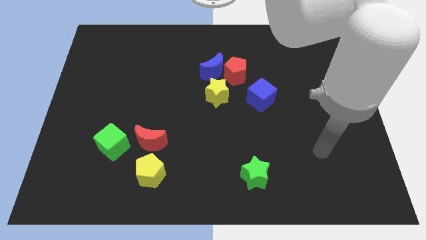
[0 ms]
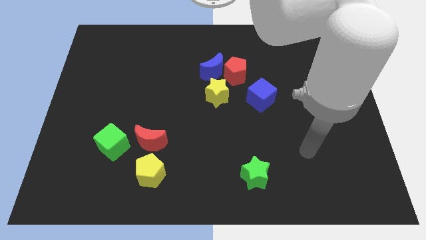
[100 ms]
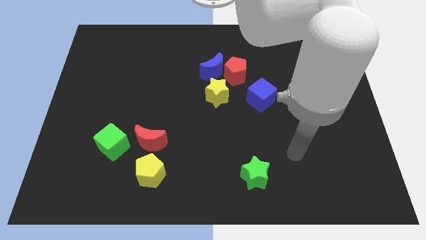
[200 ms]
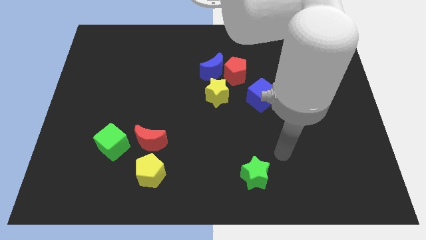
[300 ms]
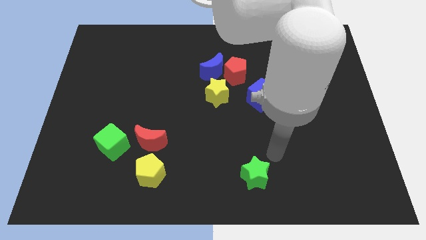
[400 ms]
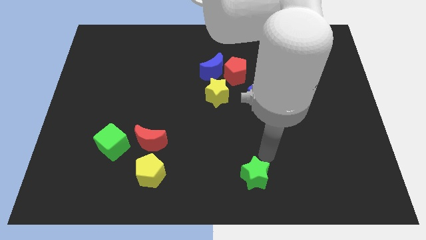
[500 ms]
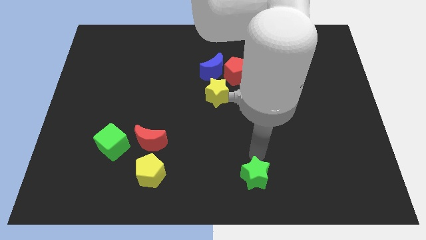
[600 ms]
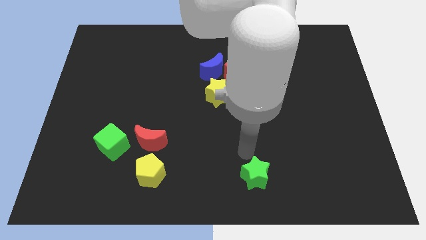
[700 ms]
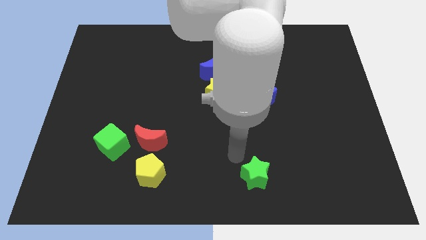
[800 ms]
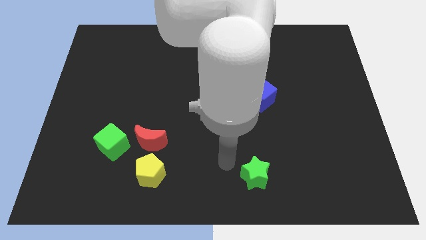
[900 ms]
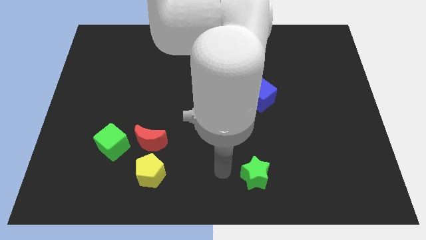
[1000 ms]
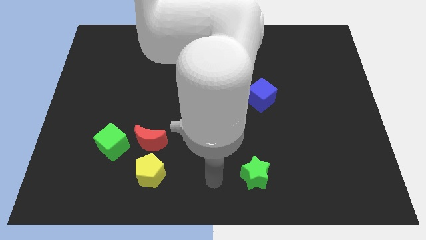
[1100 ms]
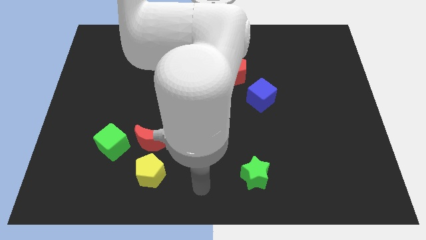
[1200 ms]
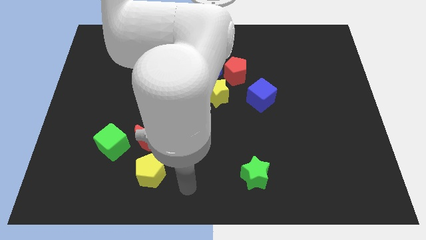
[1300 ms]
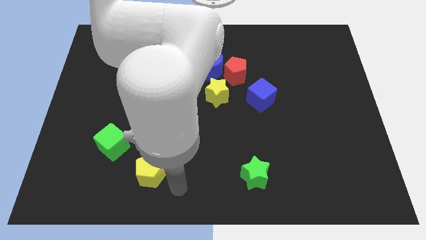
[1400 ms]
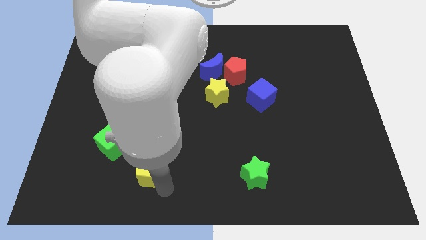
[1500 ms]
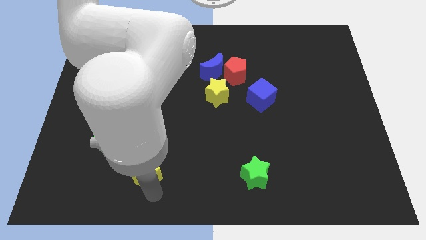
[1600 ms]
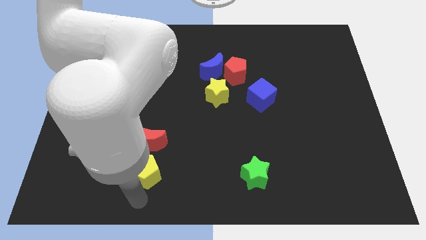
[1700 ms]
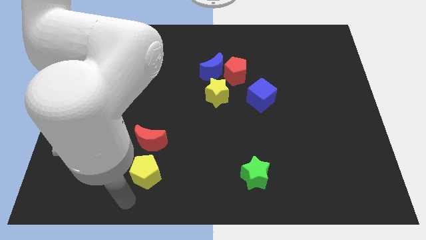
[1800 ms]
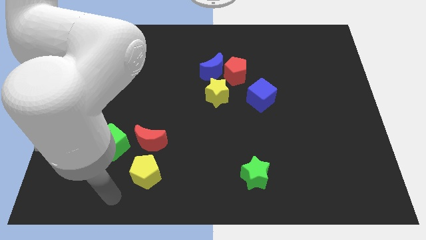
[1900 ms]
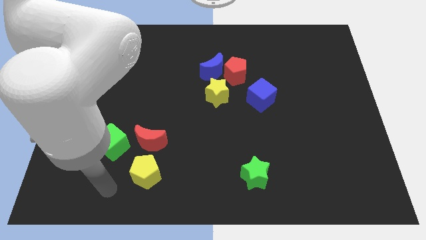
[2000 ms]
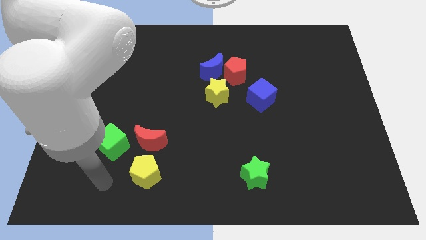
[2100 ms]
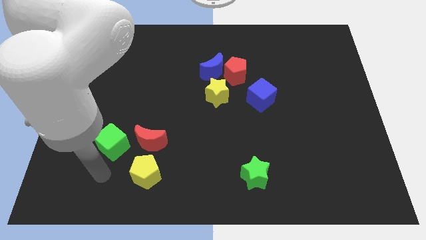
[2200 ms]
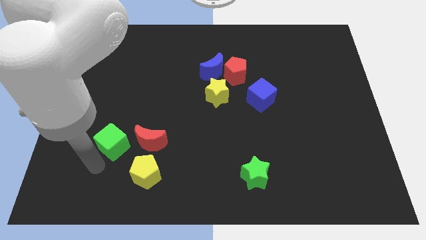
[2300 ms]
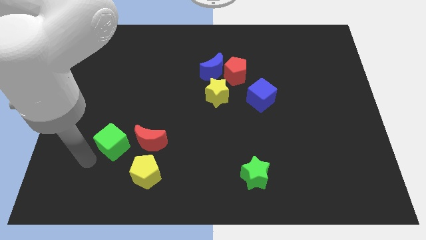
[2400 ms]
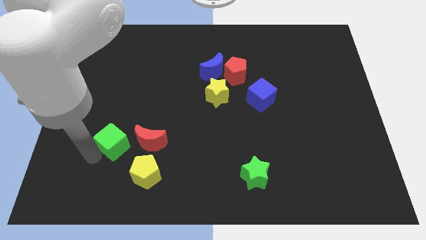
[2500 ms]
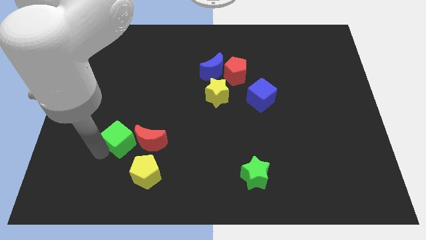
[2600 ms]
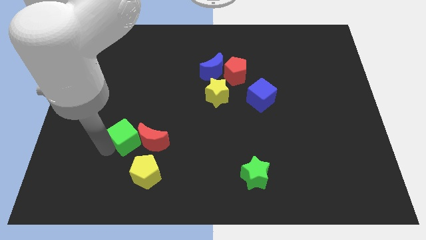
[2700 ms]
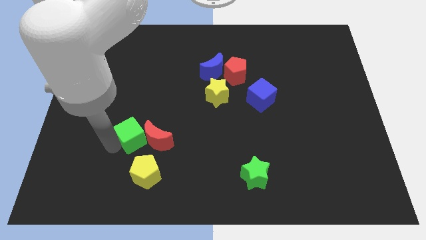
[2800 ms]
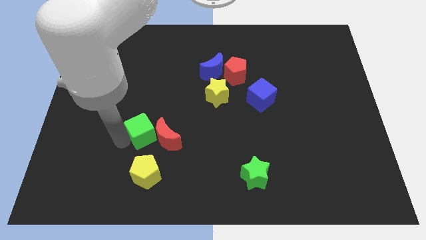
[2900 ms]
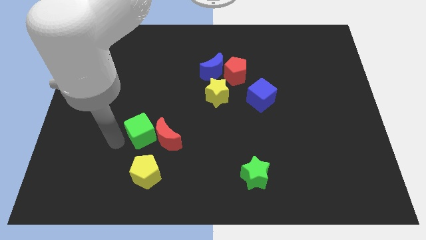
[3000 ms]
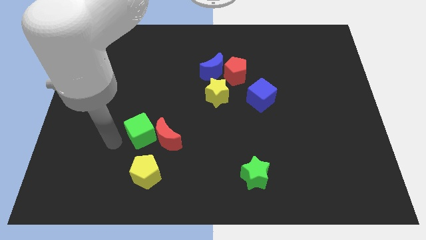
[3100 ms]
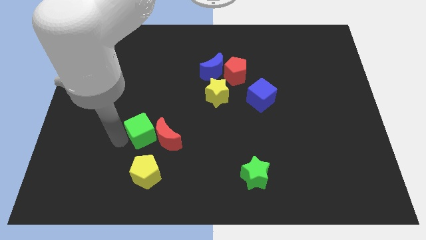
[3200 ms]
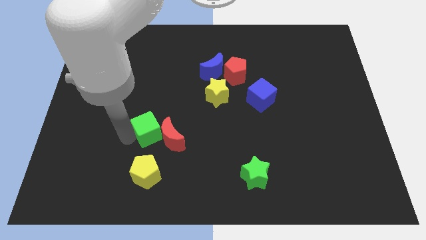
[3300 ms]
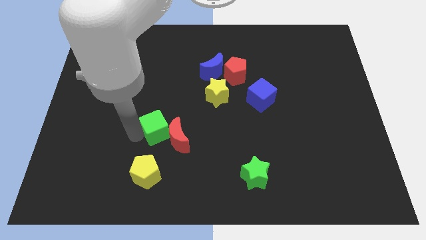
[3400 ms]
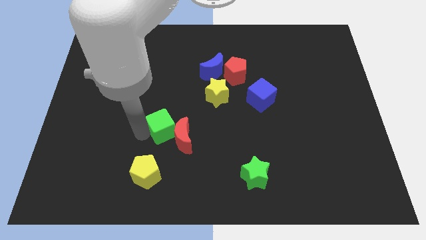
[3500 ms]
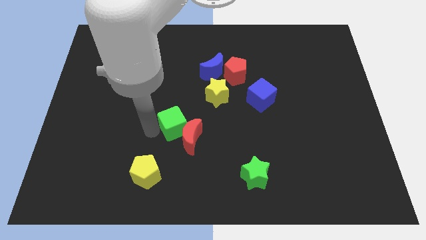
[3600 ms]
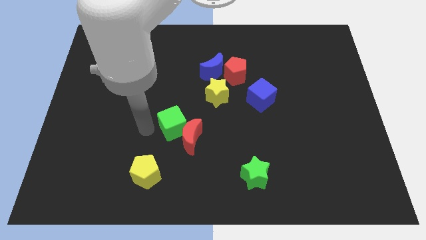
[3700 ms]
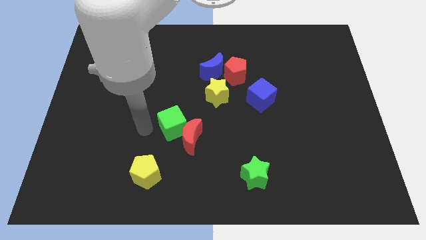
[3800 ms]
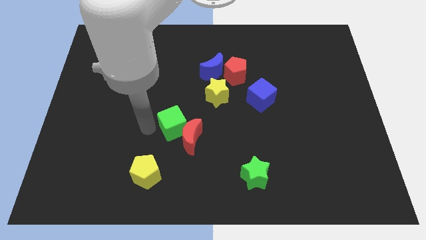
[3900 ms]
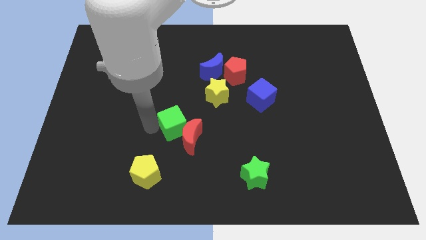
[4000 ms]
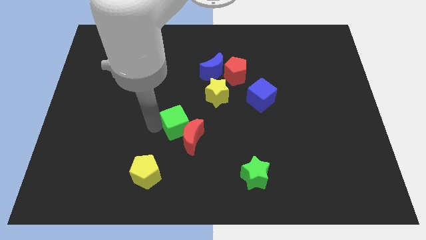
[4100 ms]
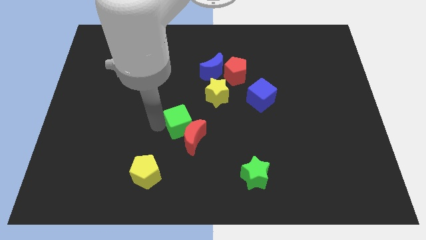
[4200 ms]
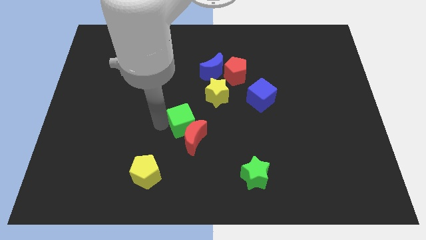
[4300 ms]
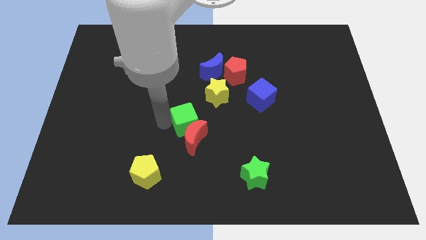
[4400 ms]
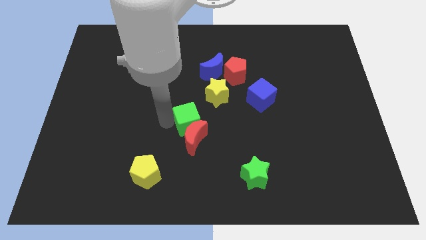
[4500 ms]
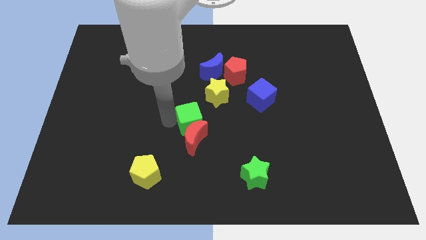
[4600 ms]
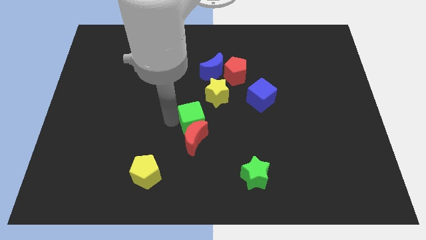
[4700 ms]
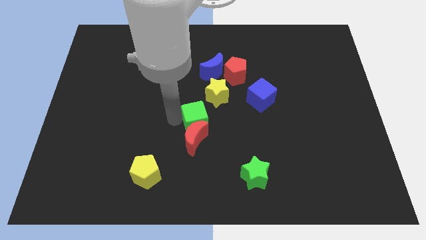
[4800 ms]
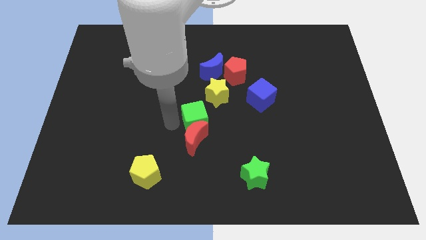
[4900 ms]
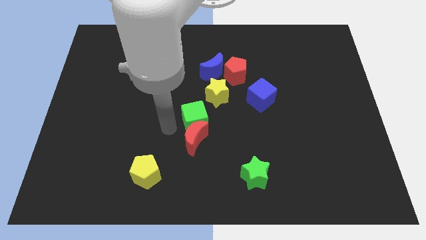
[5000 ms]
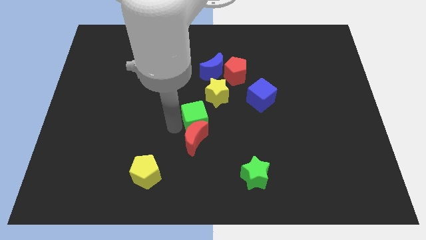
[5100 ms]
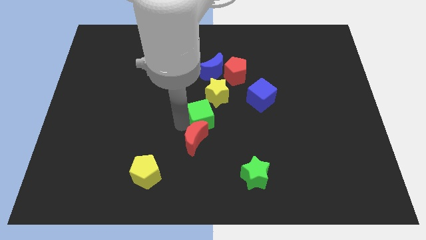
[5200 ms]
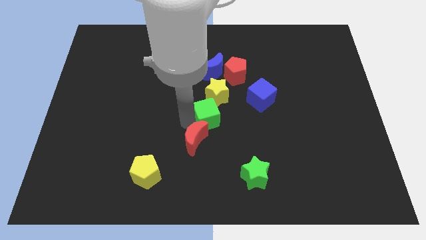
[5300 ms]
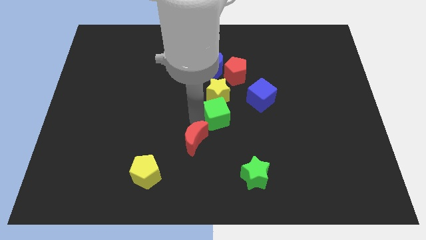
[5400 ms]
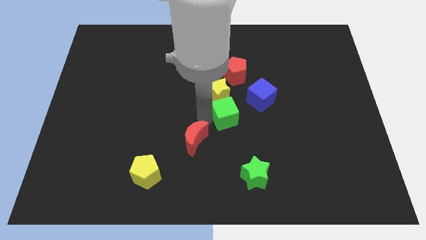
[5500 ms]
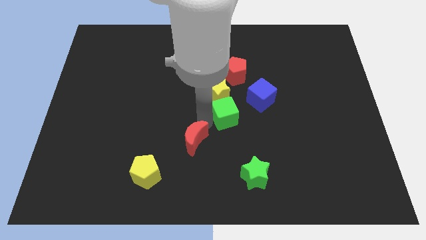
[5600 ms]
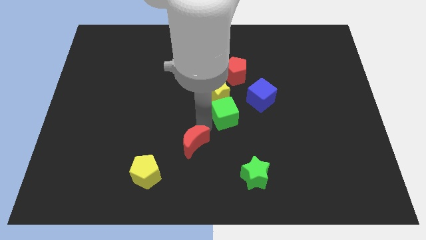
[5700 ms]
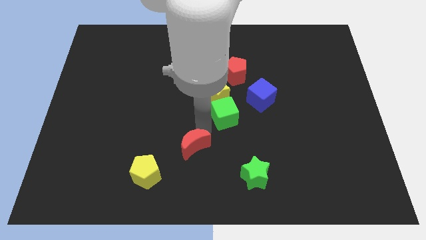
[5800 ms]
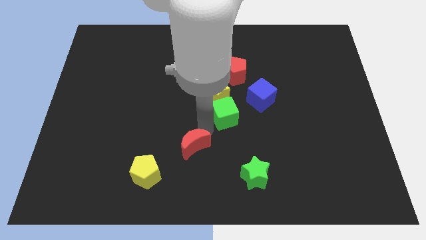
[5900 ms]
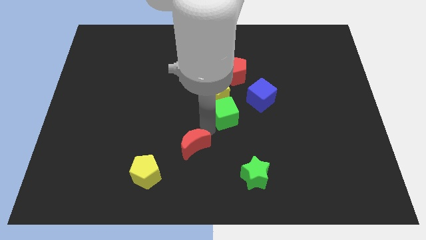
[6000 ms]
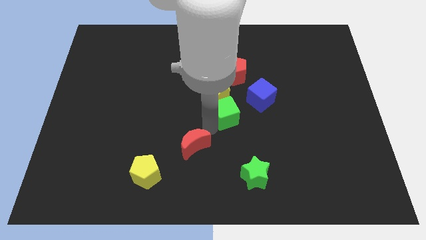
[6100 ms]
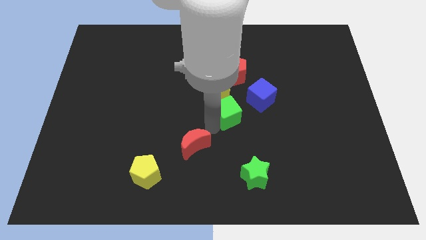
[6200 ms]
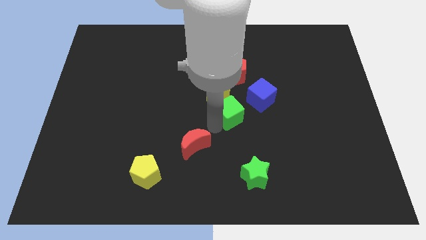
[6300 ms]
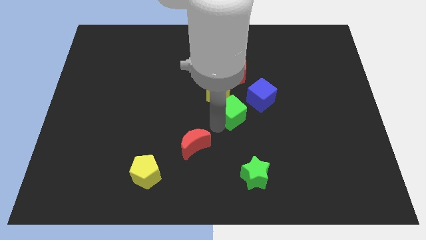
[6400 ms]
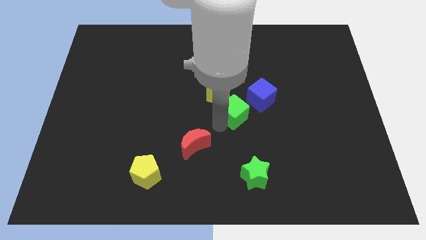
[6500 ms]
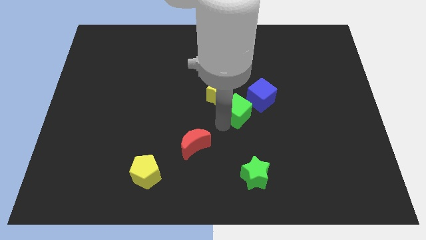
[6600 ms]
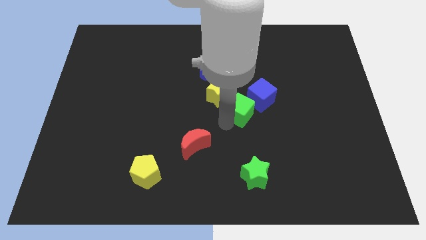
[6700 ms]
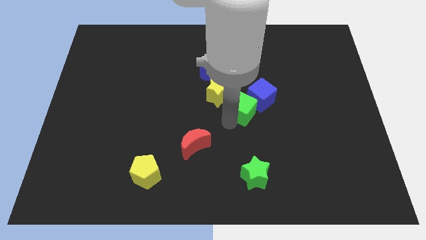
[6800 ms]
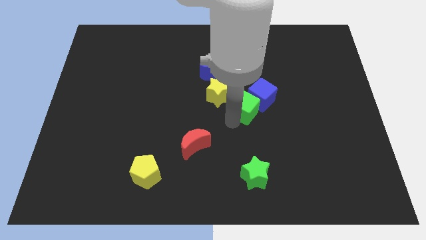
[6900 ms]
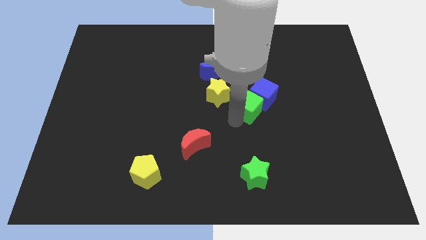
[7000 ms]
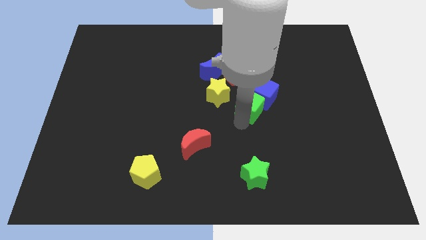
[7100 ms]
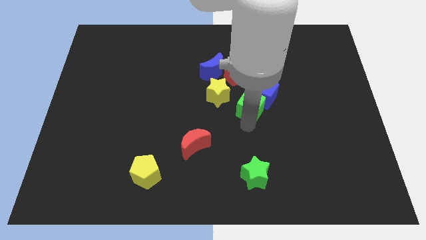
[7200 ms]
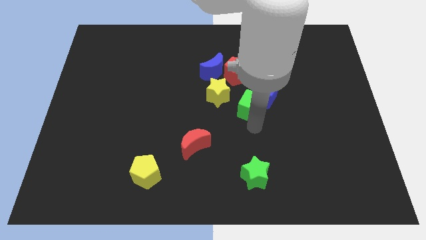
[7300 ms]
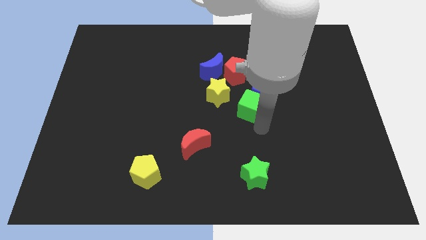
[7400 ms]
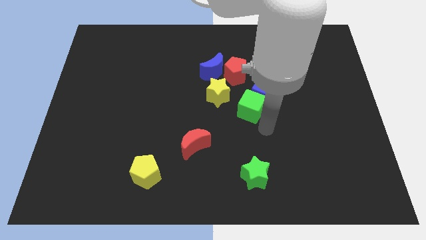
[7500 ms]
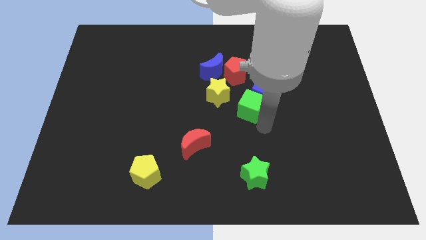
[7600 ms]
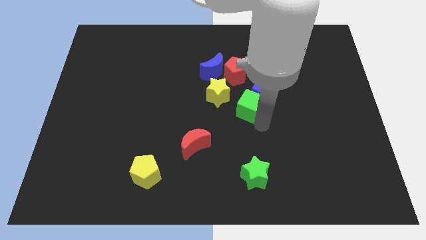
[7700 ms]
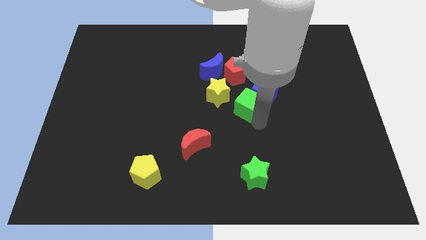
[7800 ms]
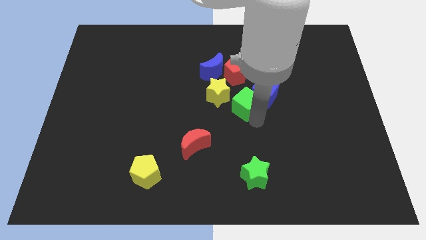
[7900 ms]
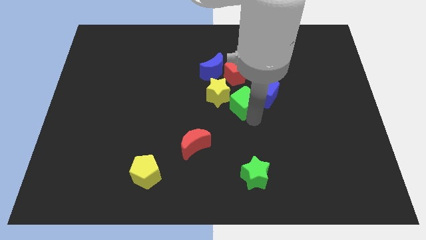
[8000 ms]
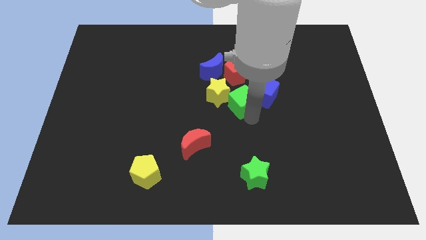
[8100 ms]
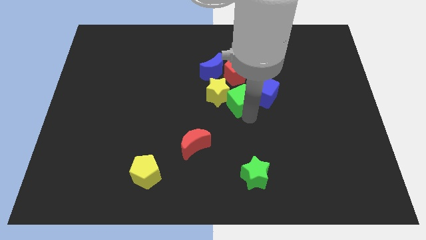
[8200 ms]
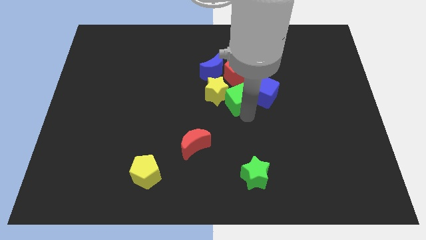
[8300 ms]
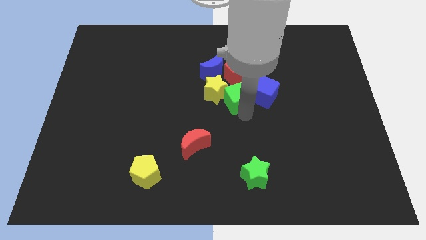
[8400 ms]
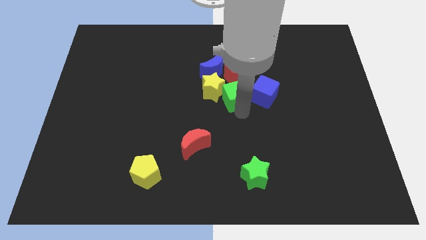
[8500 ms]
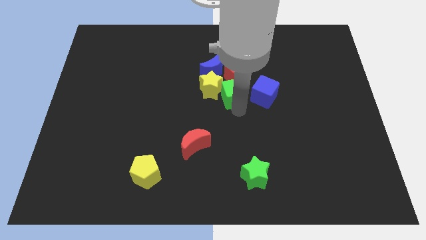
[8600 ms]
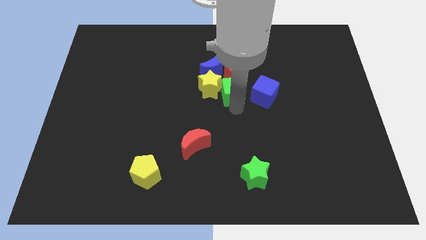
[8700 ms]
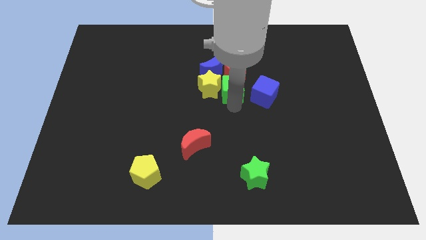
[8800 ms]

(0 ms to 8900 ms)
move the green cube close to the red pentagon
